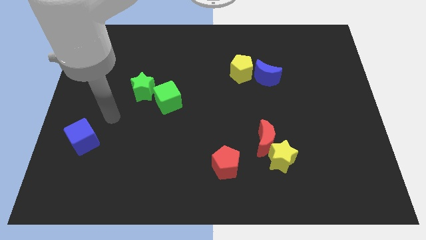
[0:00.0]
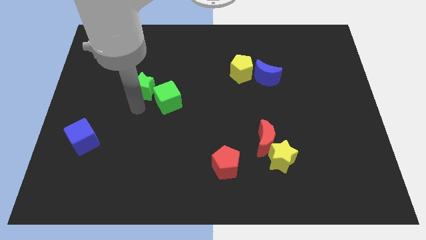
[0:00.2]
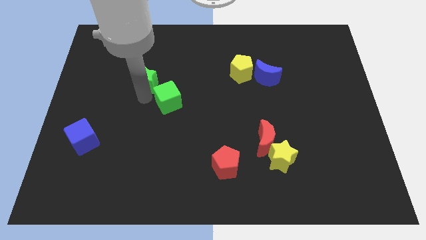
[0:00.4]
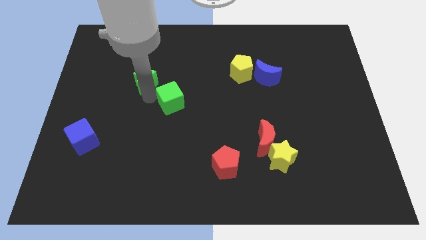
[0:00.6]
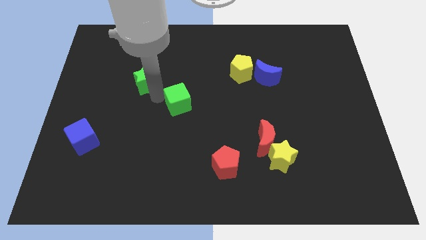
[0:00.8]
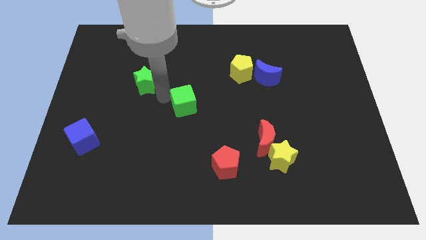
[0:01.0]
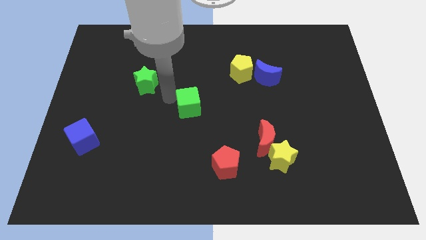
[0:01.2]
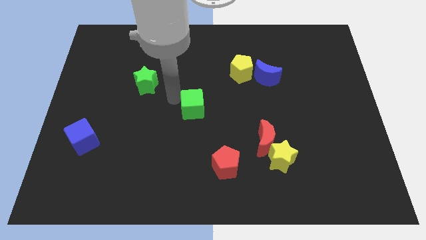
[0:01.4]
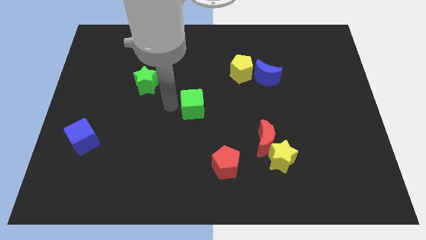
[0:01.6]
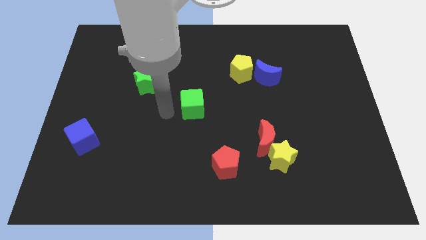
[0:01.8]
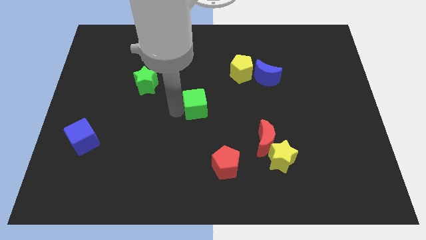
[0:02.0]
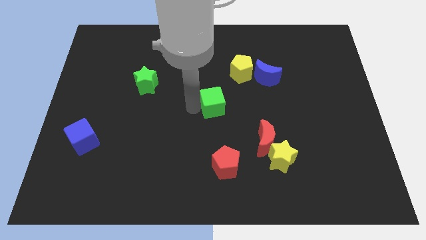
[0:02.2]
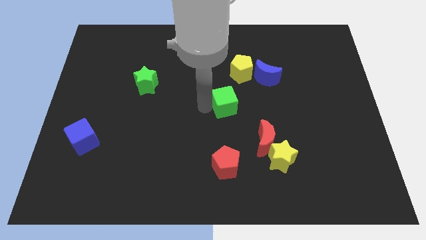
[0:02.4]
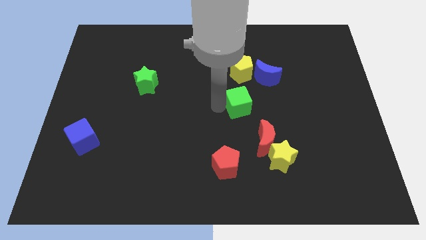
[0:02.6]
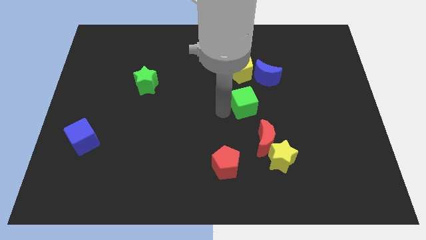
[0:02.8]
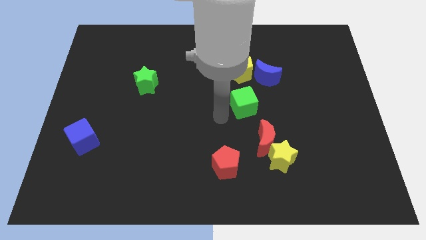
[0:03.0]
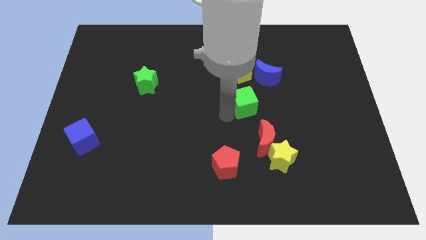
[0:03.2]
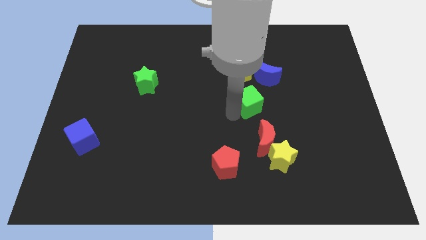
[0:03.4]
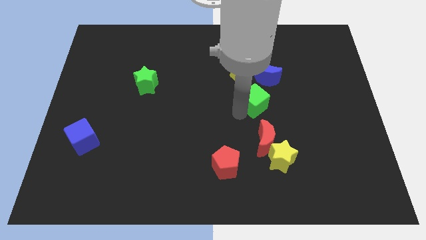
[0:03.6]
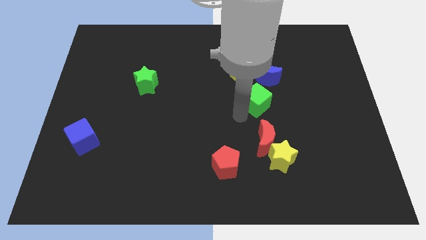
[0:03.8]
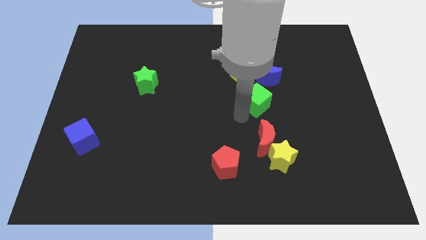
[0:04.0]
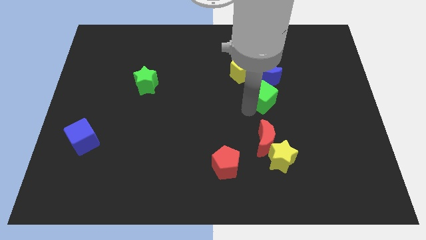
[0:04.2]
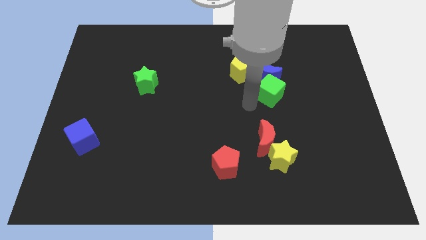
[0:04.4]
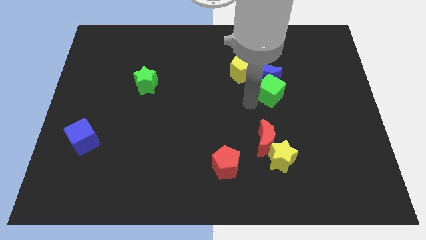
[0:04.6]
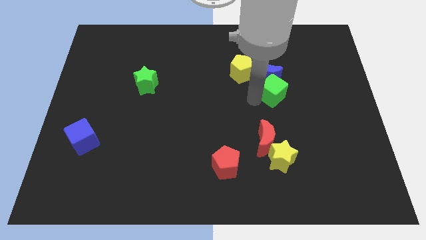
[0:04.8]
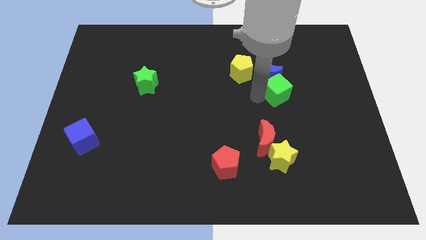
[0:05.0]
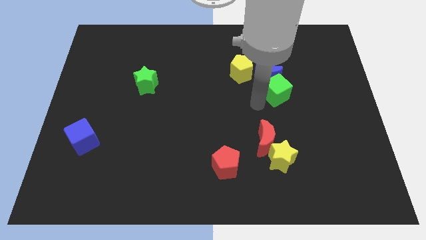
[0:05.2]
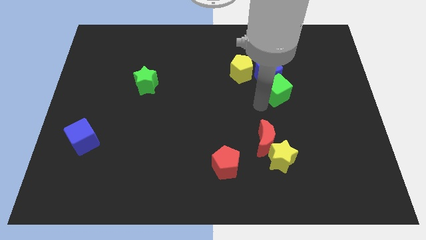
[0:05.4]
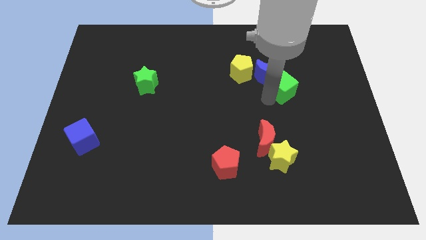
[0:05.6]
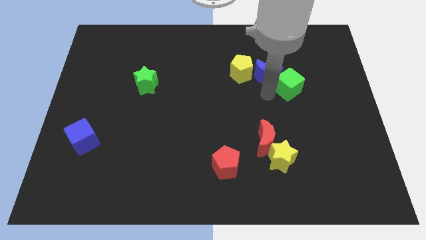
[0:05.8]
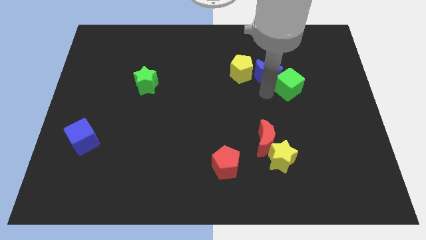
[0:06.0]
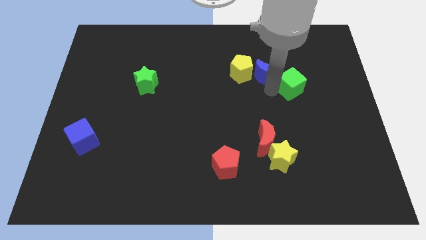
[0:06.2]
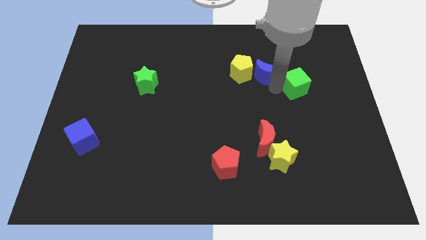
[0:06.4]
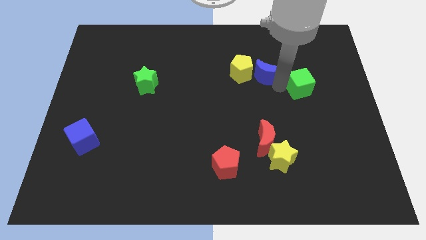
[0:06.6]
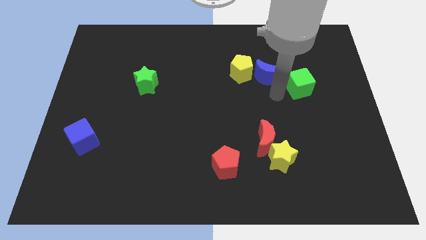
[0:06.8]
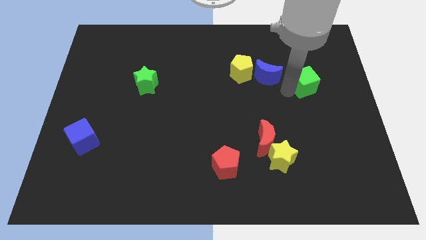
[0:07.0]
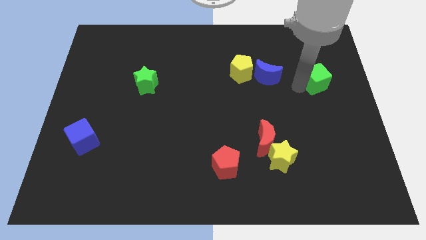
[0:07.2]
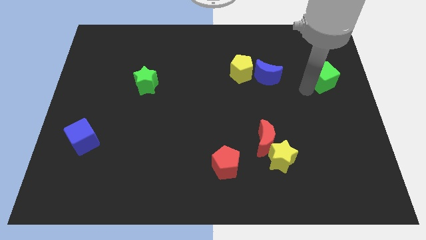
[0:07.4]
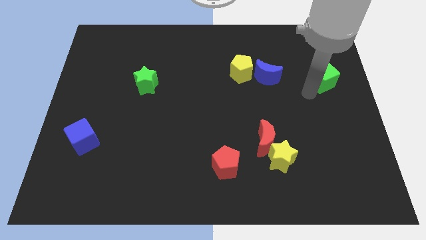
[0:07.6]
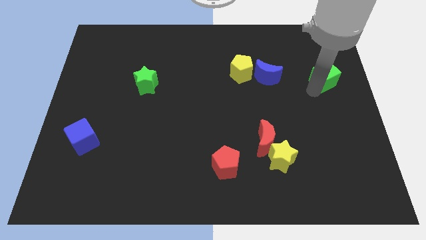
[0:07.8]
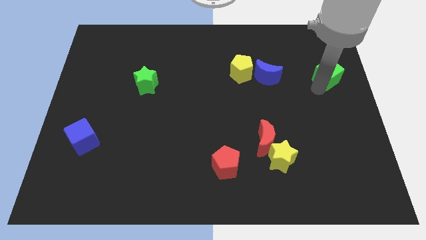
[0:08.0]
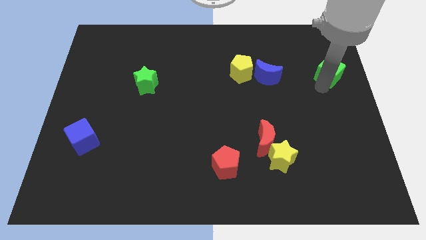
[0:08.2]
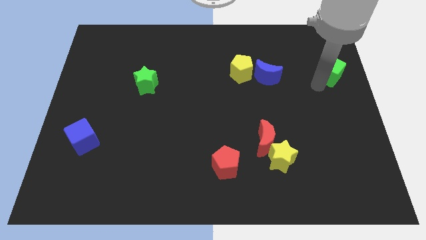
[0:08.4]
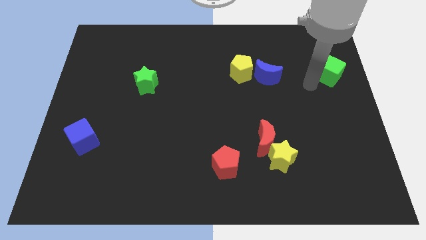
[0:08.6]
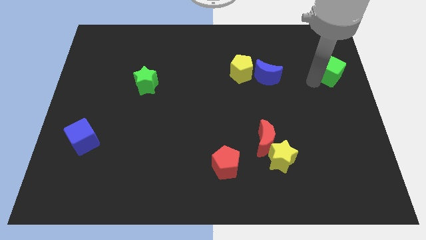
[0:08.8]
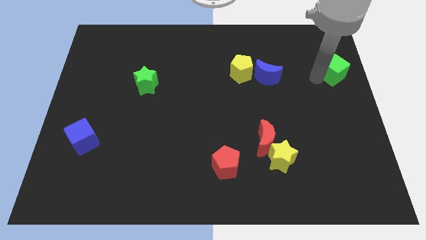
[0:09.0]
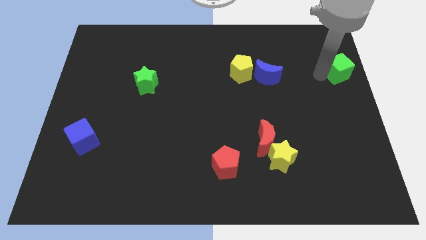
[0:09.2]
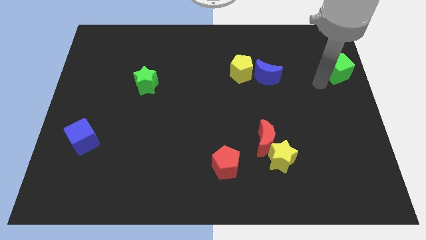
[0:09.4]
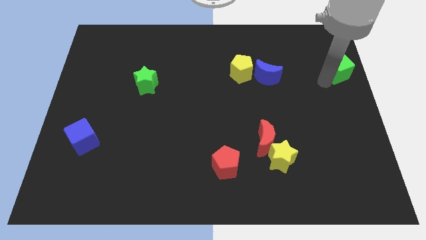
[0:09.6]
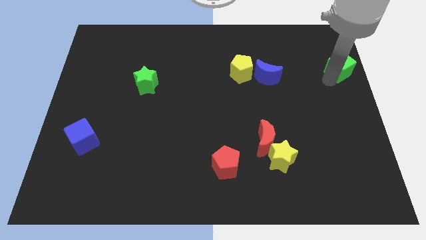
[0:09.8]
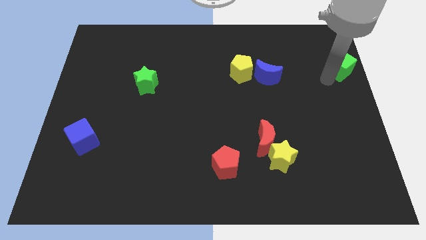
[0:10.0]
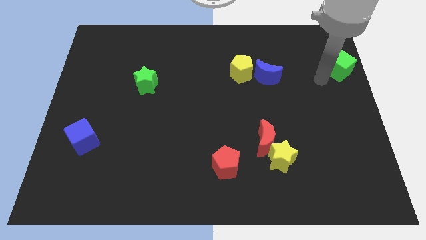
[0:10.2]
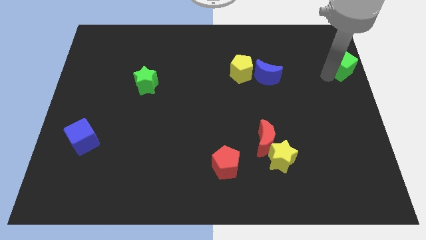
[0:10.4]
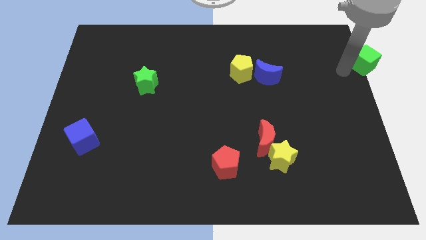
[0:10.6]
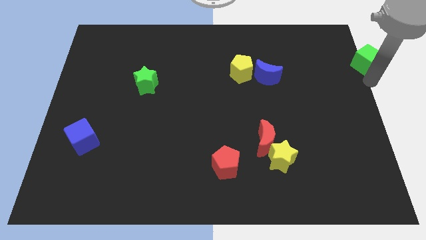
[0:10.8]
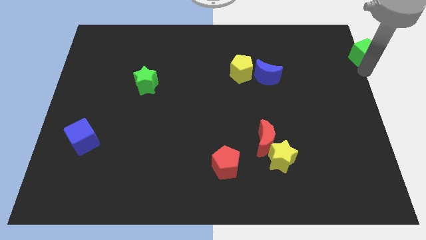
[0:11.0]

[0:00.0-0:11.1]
slide the green cube to the top right of the board
